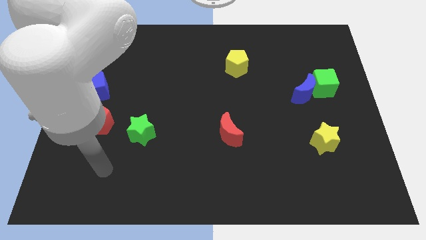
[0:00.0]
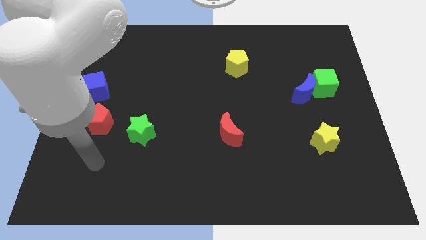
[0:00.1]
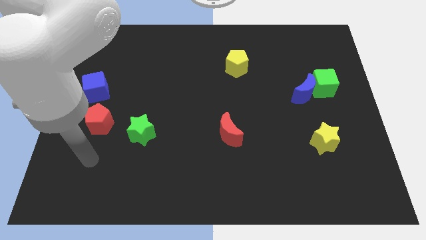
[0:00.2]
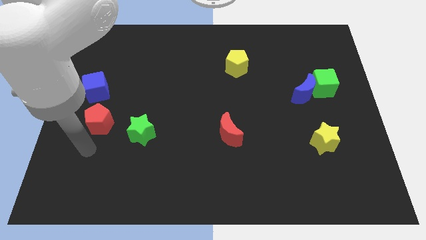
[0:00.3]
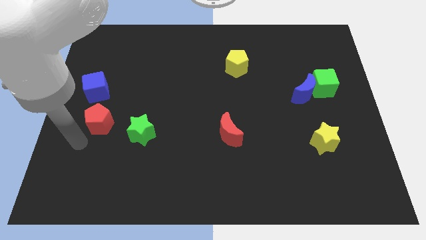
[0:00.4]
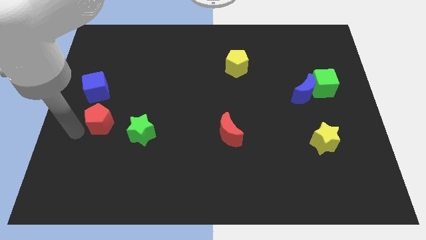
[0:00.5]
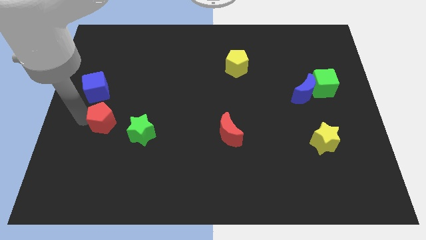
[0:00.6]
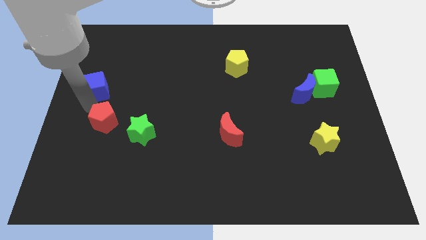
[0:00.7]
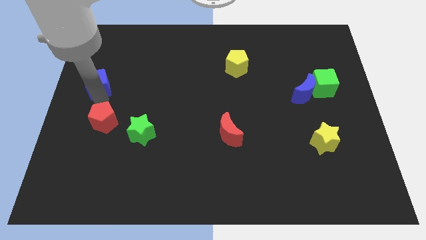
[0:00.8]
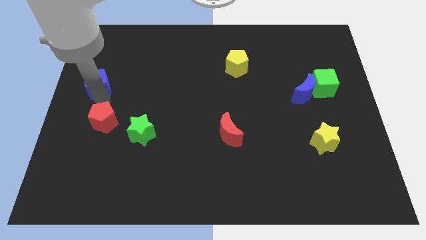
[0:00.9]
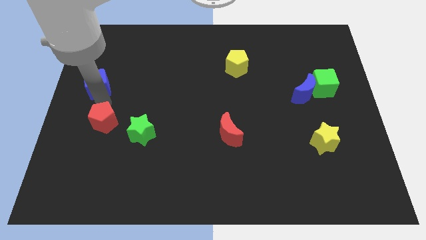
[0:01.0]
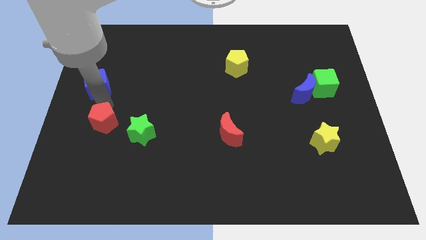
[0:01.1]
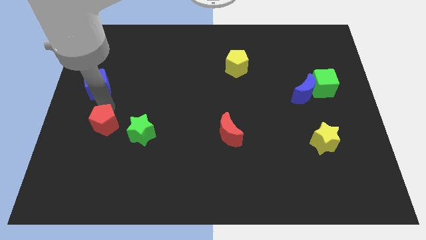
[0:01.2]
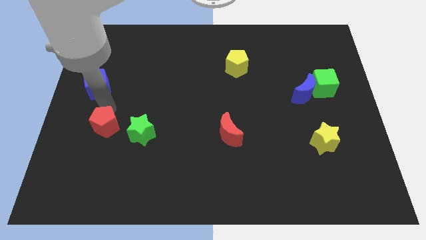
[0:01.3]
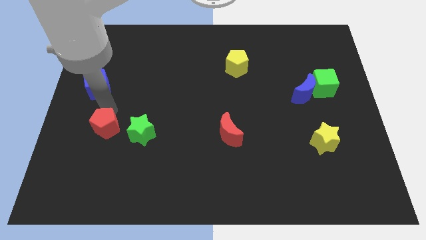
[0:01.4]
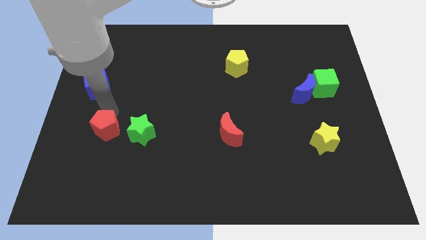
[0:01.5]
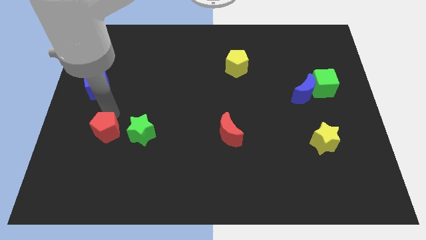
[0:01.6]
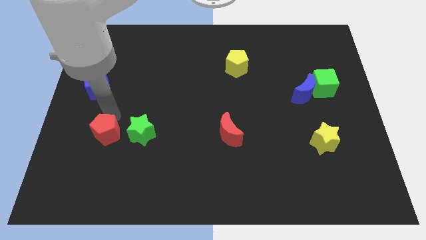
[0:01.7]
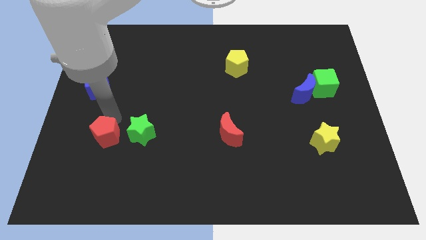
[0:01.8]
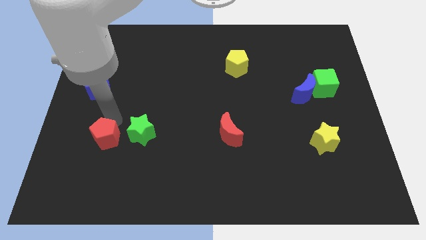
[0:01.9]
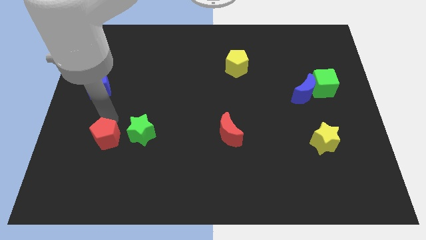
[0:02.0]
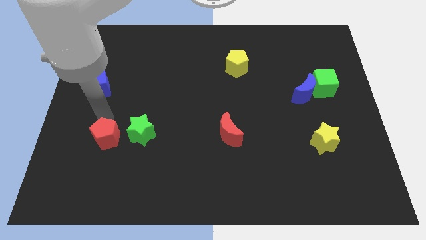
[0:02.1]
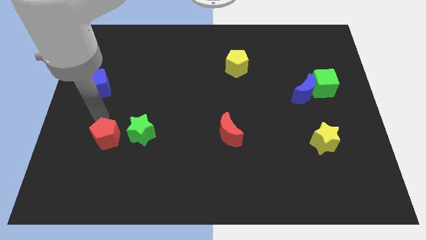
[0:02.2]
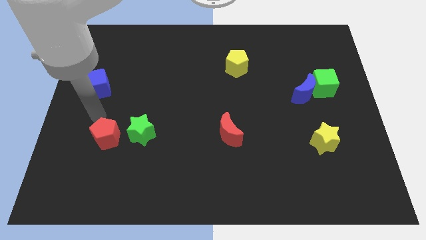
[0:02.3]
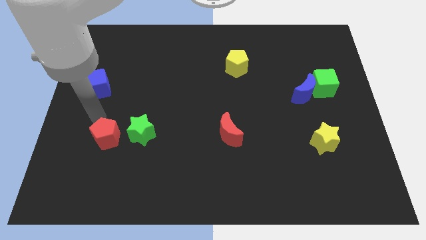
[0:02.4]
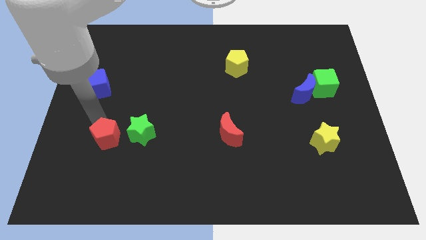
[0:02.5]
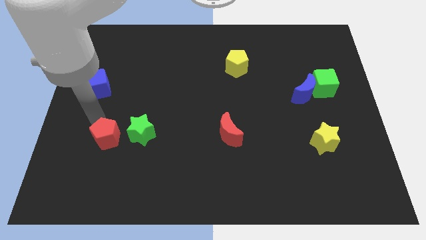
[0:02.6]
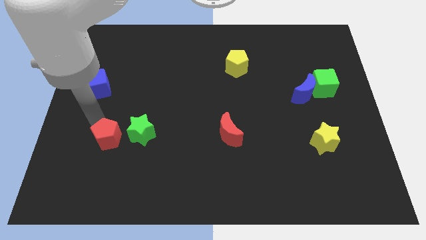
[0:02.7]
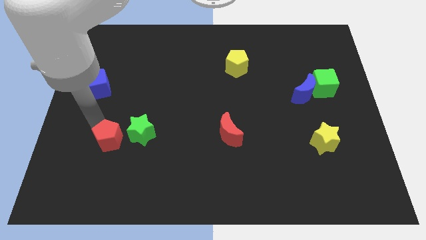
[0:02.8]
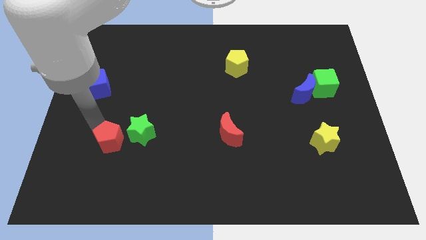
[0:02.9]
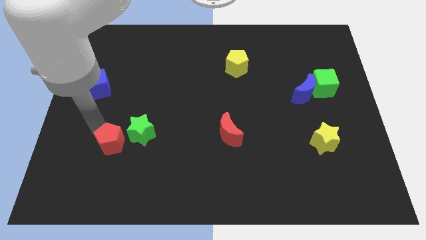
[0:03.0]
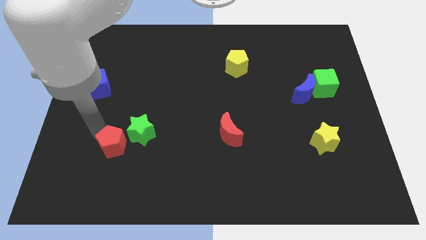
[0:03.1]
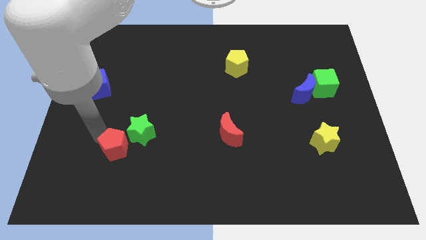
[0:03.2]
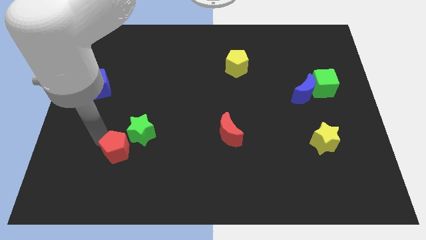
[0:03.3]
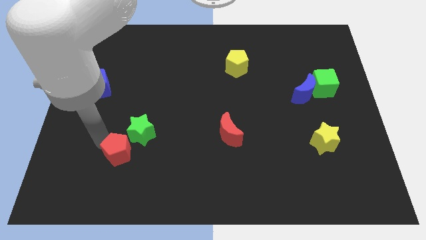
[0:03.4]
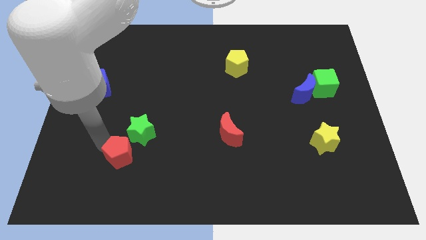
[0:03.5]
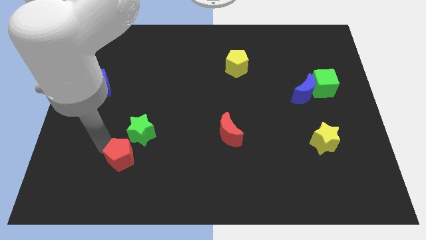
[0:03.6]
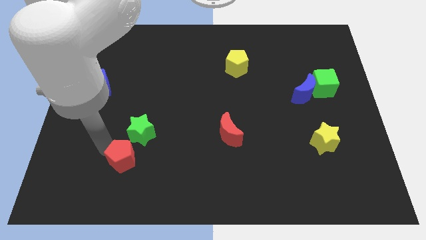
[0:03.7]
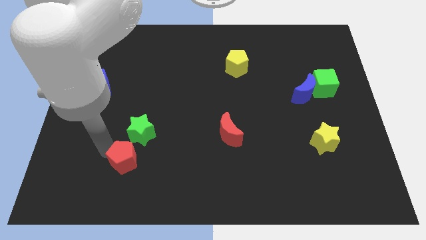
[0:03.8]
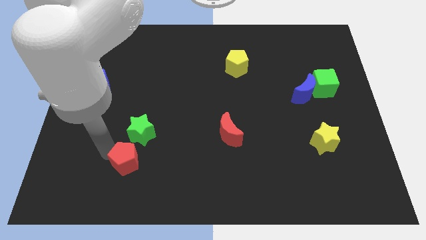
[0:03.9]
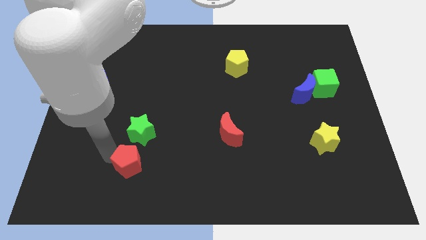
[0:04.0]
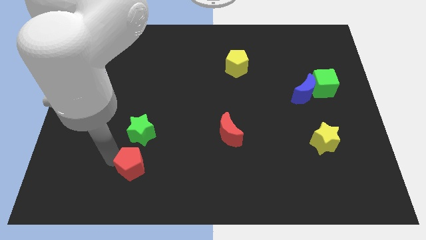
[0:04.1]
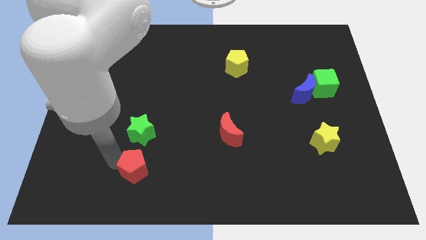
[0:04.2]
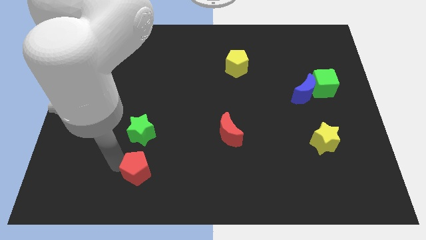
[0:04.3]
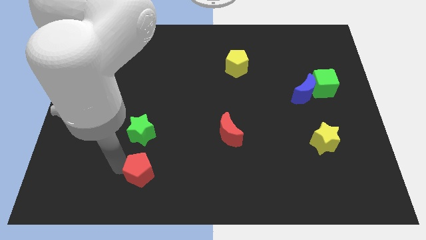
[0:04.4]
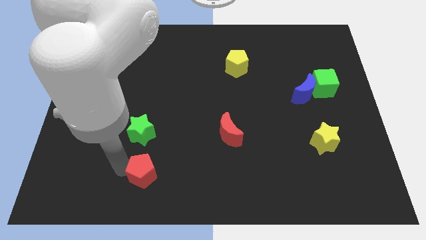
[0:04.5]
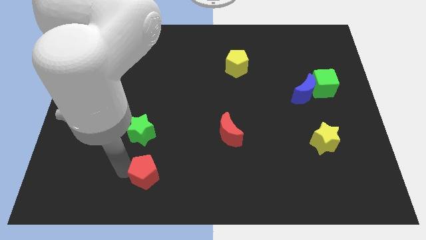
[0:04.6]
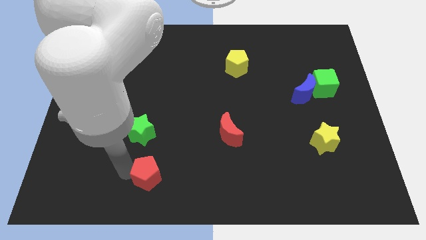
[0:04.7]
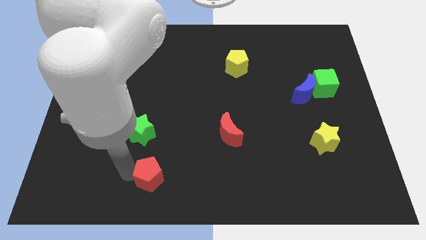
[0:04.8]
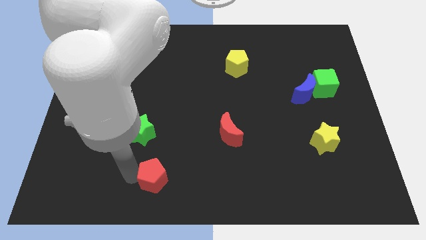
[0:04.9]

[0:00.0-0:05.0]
move the red pentagon to the bottom

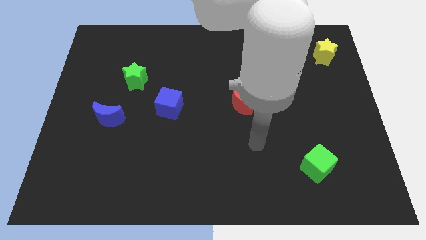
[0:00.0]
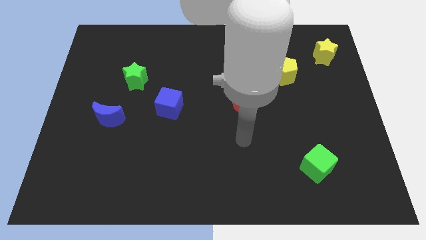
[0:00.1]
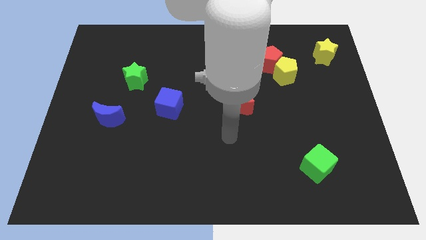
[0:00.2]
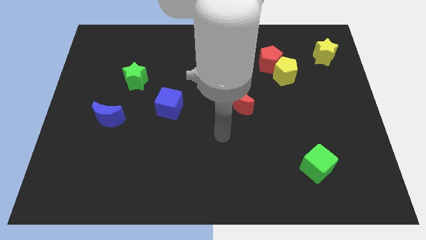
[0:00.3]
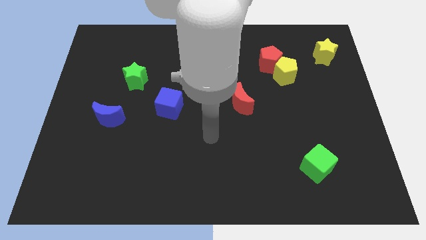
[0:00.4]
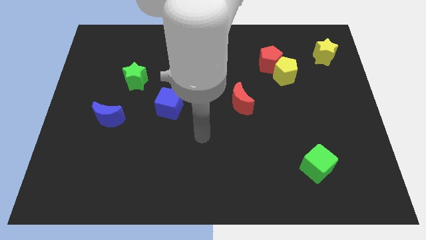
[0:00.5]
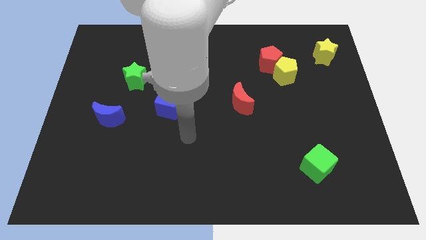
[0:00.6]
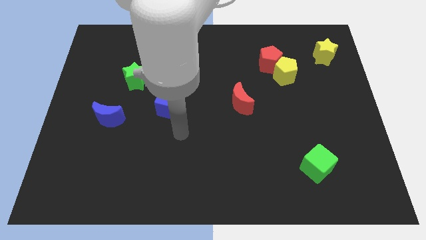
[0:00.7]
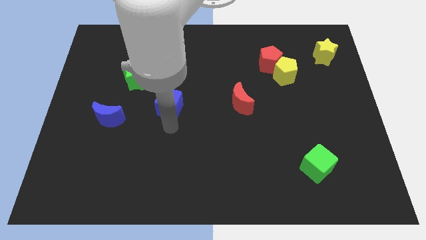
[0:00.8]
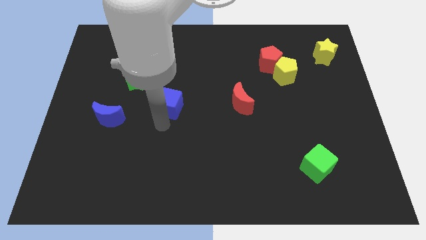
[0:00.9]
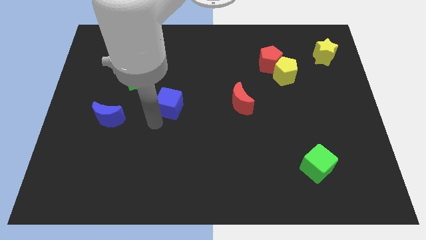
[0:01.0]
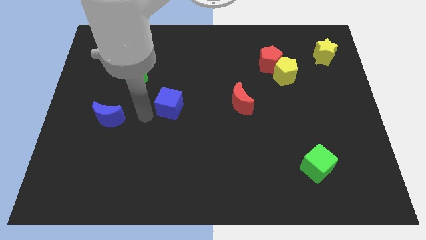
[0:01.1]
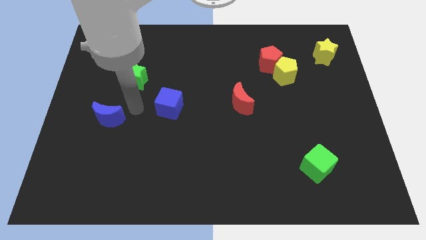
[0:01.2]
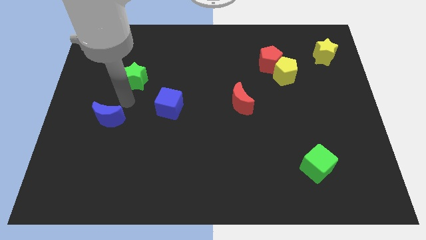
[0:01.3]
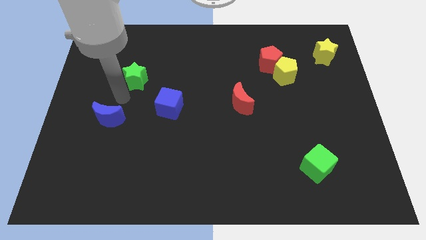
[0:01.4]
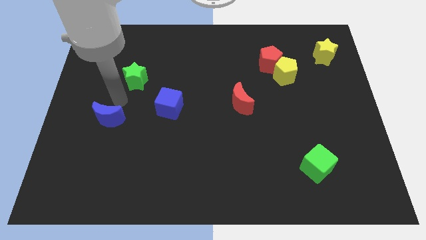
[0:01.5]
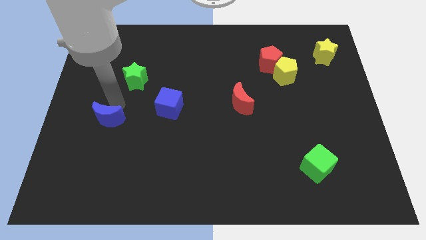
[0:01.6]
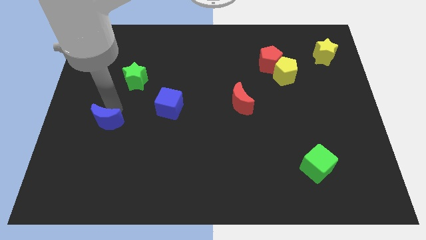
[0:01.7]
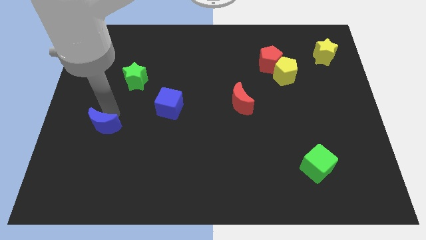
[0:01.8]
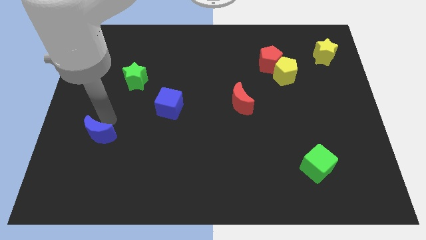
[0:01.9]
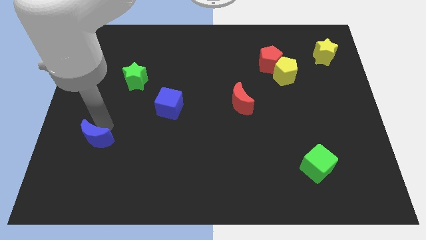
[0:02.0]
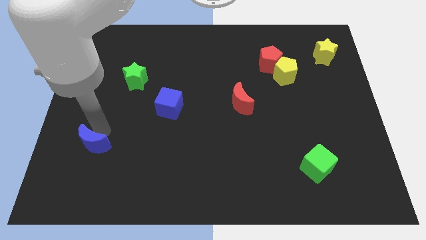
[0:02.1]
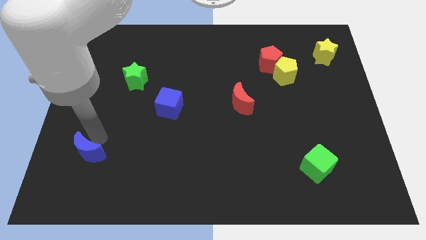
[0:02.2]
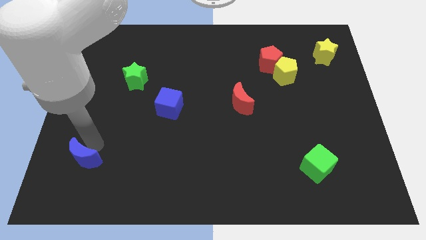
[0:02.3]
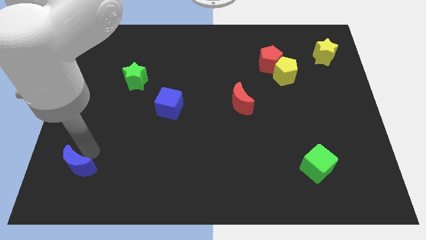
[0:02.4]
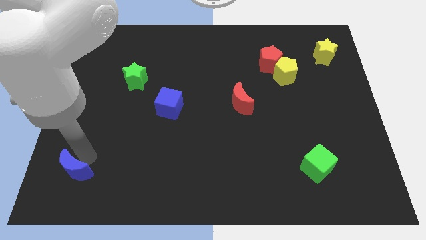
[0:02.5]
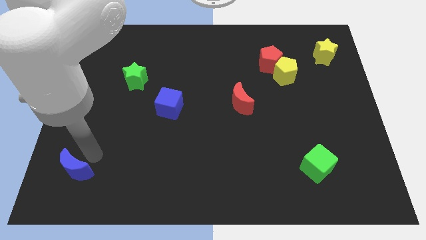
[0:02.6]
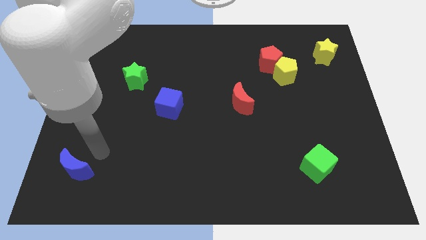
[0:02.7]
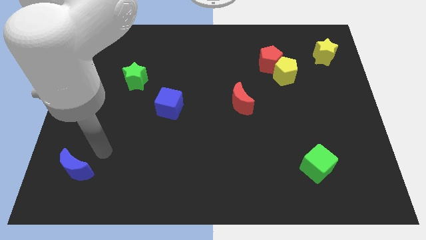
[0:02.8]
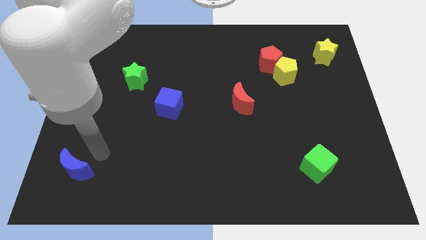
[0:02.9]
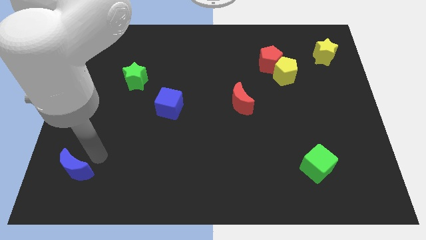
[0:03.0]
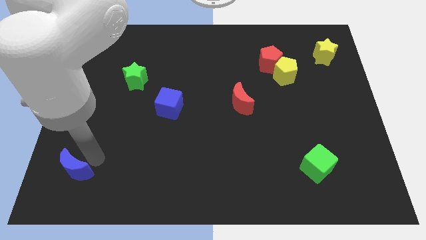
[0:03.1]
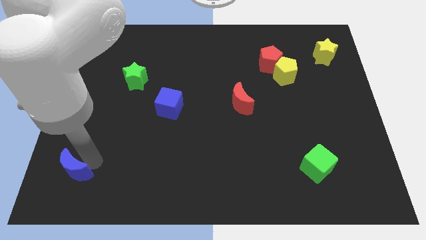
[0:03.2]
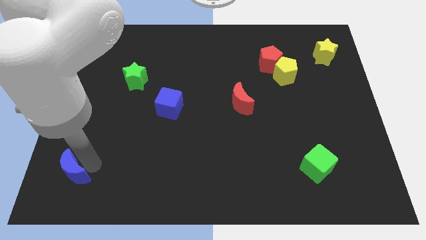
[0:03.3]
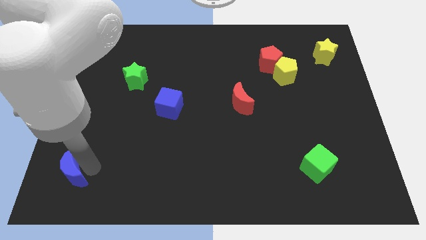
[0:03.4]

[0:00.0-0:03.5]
push the blue moon to the bottom left corner
